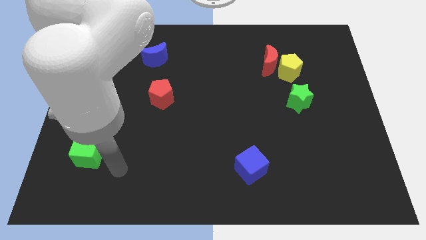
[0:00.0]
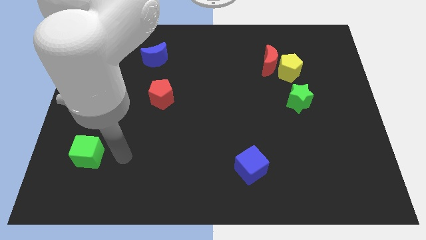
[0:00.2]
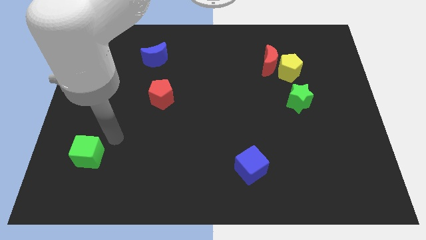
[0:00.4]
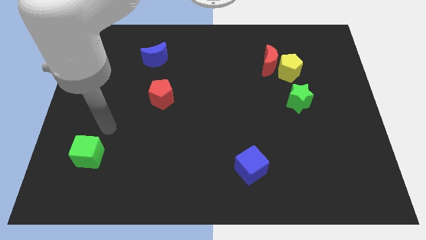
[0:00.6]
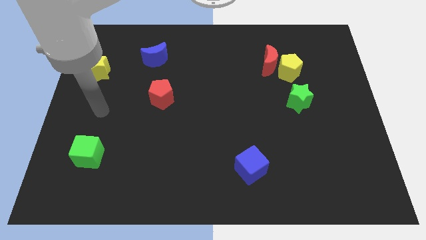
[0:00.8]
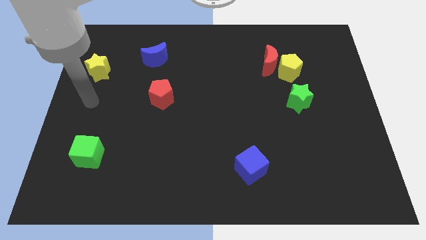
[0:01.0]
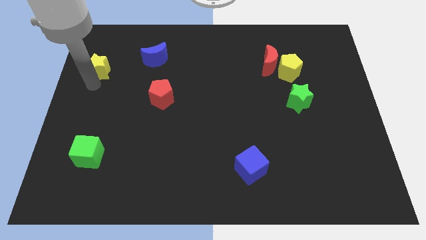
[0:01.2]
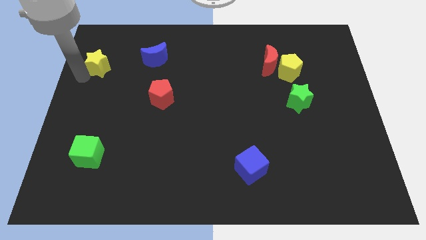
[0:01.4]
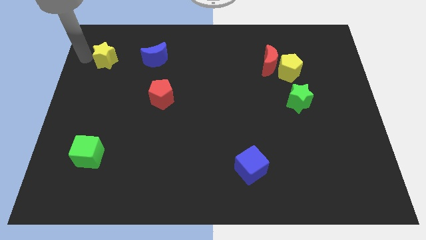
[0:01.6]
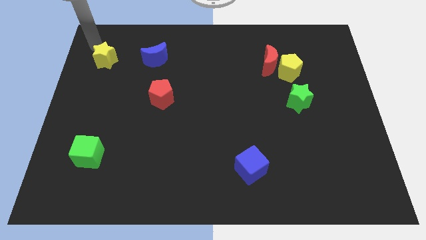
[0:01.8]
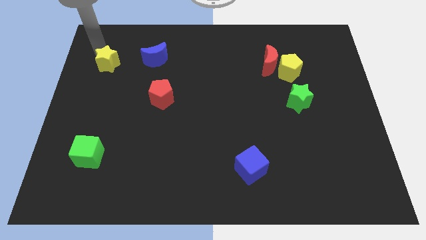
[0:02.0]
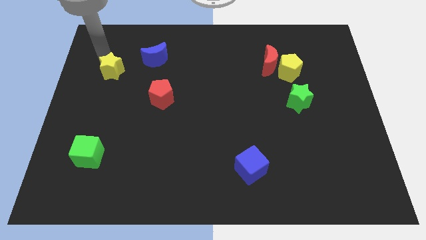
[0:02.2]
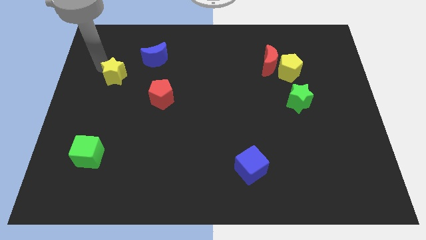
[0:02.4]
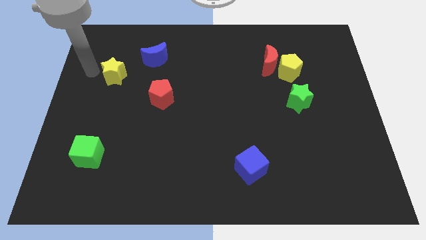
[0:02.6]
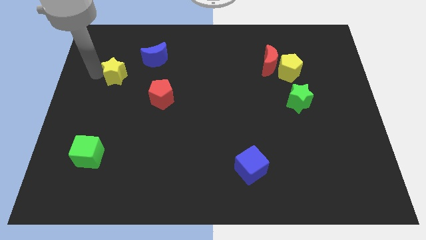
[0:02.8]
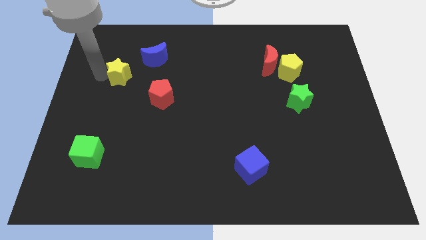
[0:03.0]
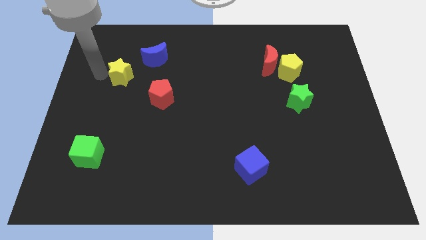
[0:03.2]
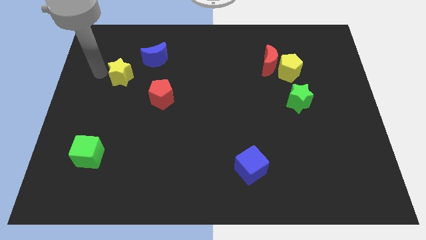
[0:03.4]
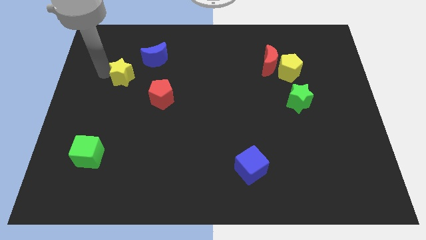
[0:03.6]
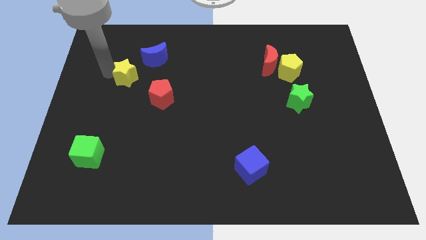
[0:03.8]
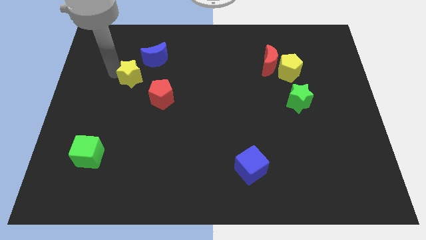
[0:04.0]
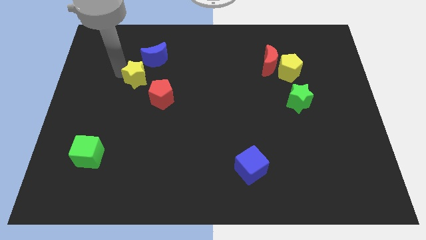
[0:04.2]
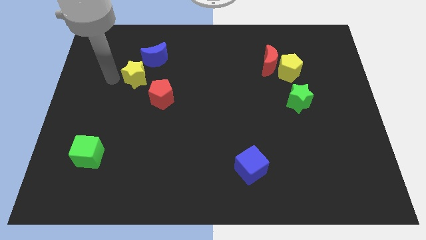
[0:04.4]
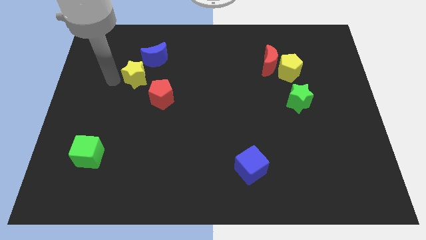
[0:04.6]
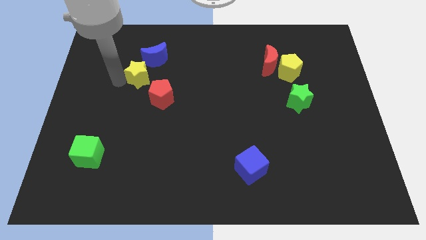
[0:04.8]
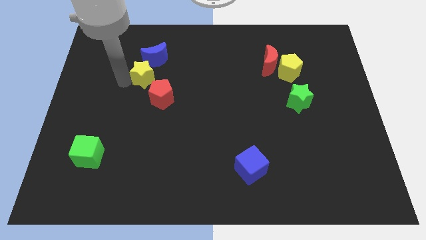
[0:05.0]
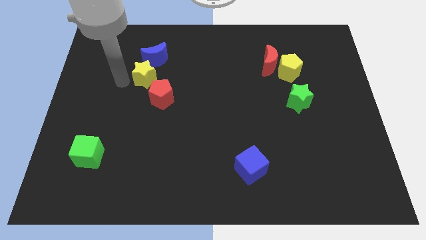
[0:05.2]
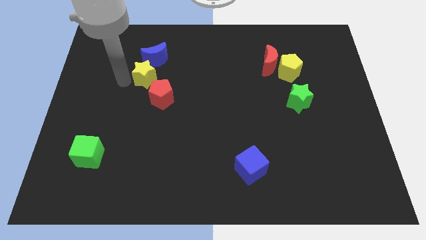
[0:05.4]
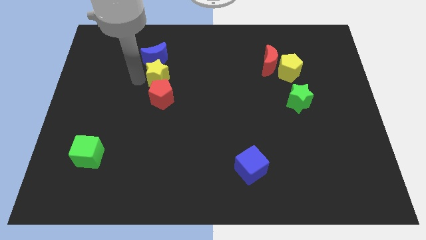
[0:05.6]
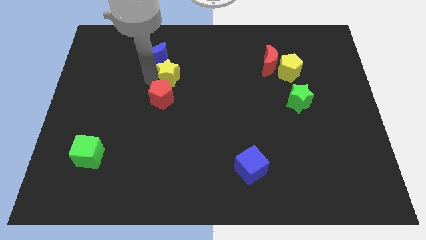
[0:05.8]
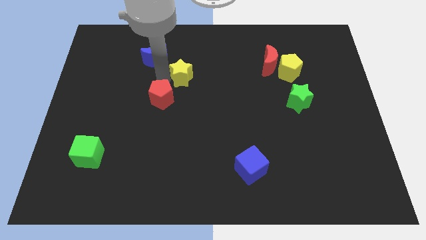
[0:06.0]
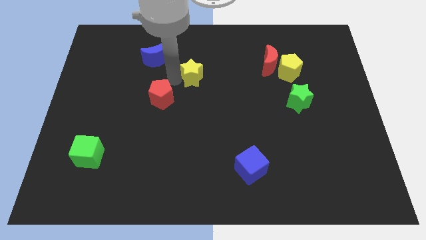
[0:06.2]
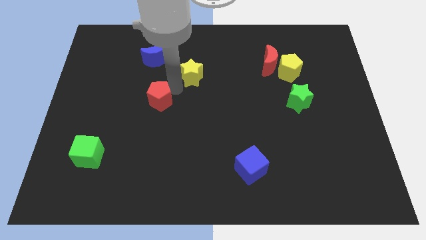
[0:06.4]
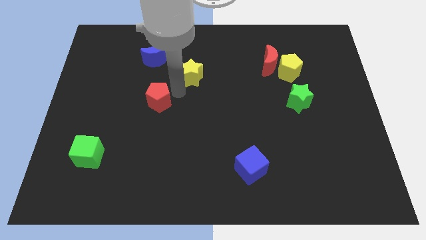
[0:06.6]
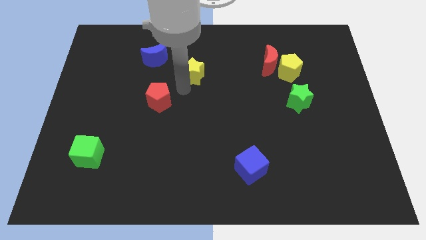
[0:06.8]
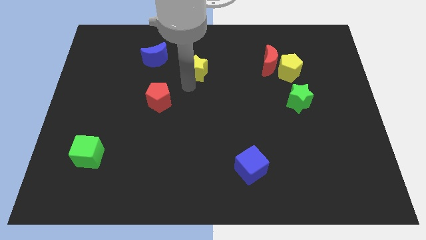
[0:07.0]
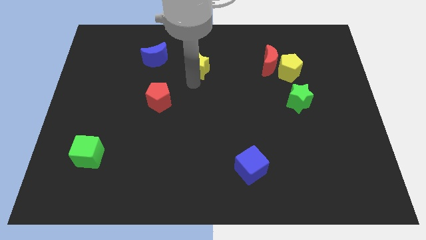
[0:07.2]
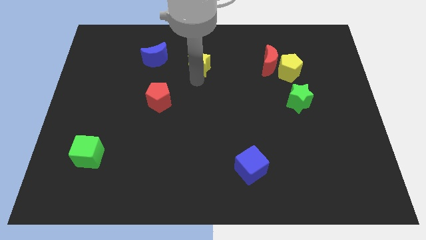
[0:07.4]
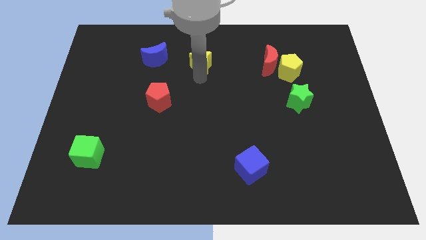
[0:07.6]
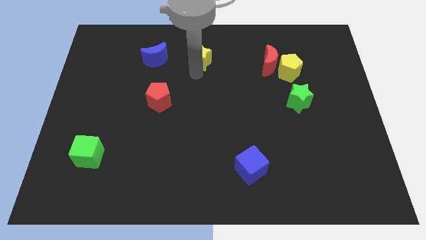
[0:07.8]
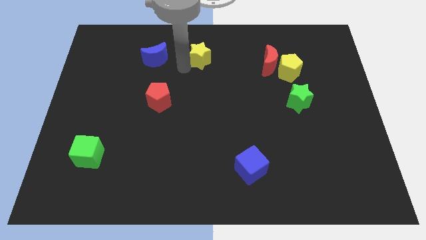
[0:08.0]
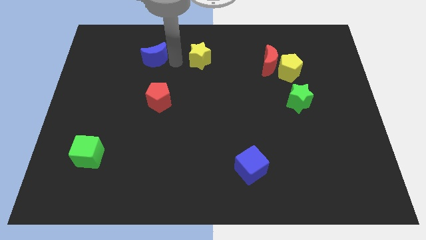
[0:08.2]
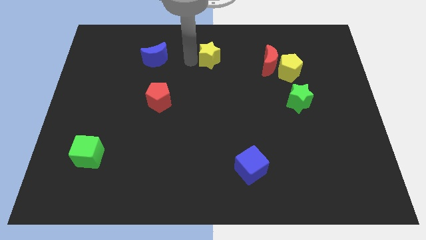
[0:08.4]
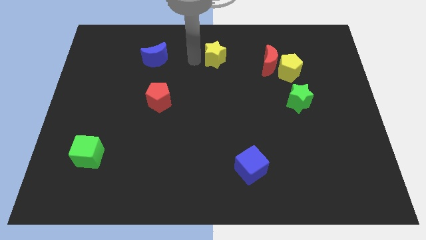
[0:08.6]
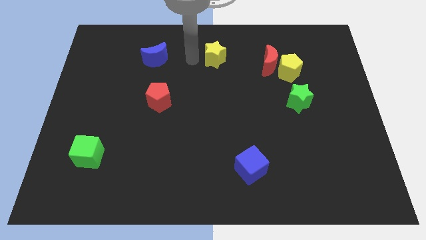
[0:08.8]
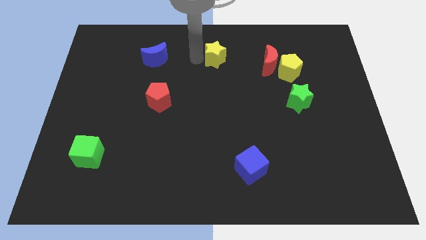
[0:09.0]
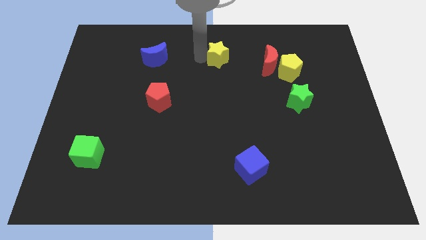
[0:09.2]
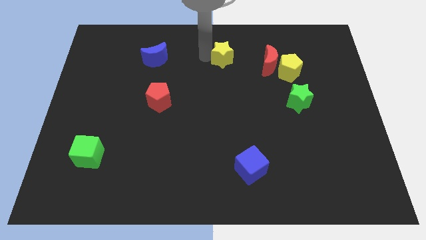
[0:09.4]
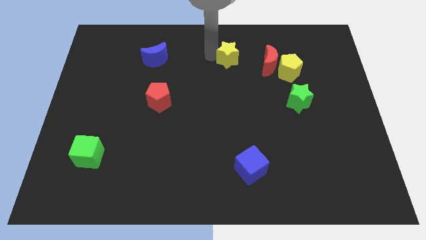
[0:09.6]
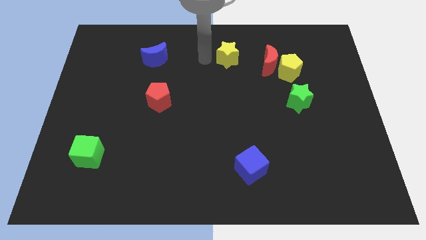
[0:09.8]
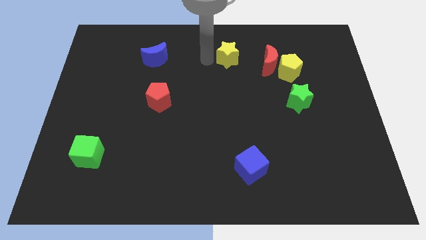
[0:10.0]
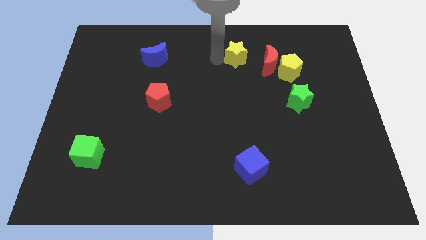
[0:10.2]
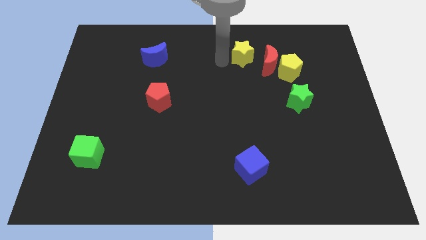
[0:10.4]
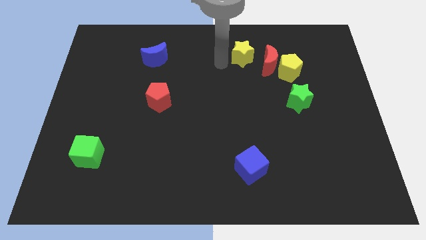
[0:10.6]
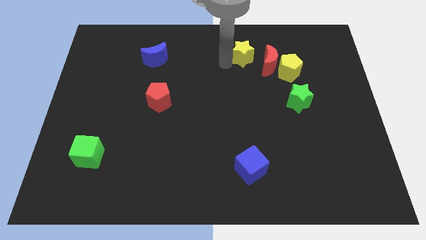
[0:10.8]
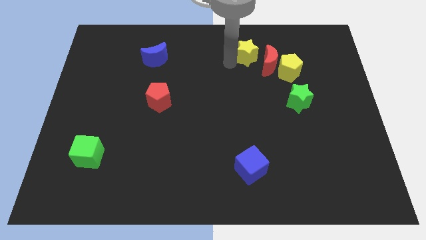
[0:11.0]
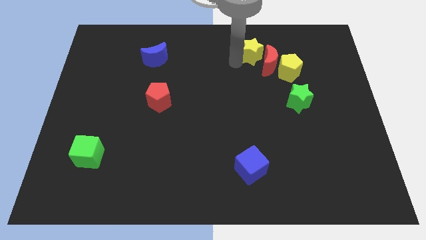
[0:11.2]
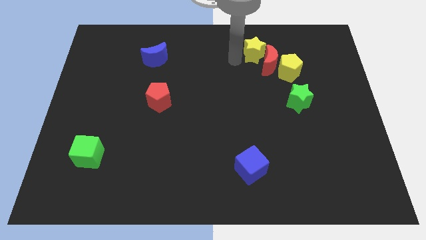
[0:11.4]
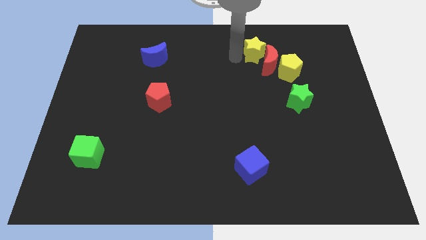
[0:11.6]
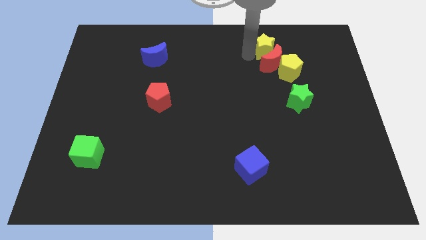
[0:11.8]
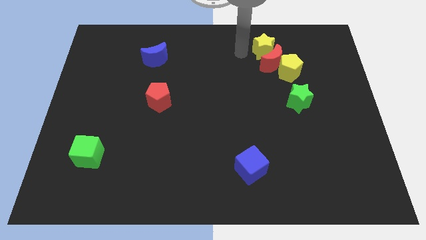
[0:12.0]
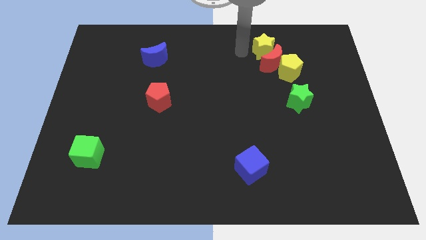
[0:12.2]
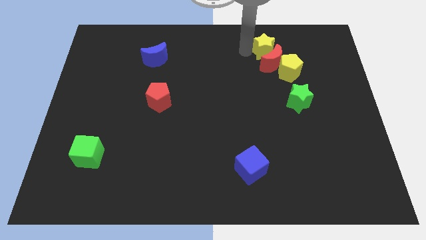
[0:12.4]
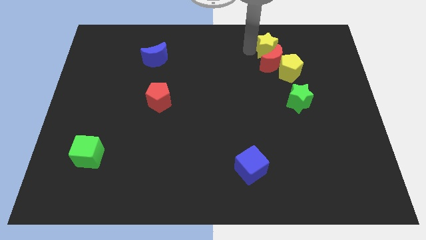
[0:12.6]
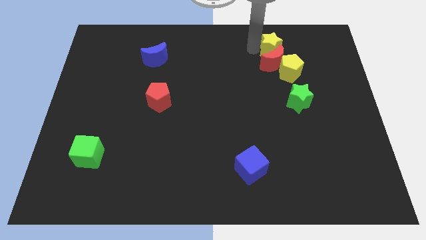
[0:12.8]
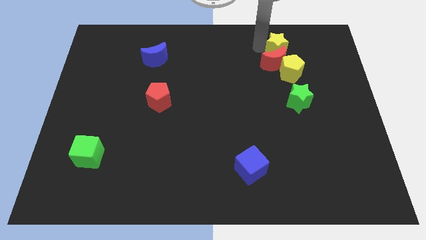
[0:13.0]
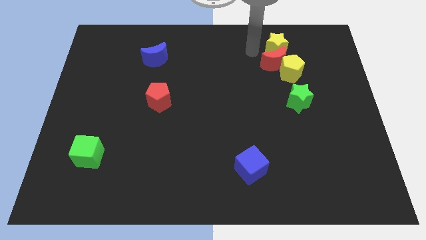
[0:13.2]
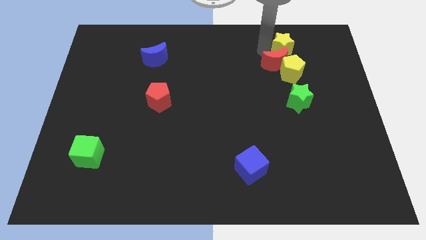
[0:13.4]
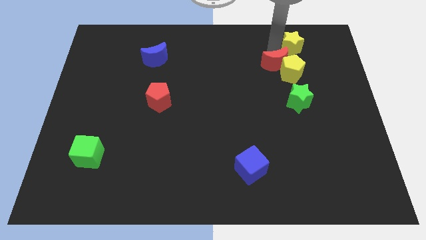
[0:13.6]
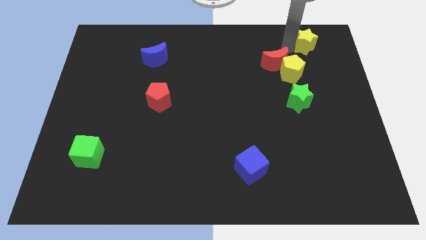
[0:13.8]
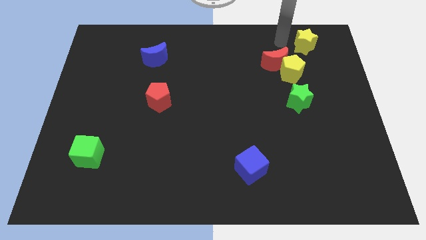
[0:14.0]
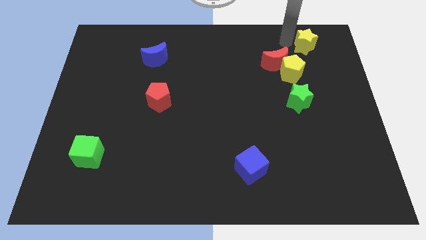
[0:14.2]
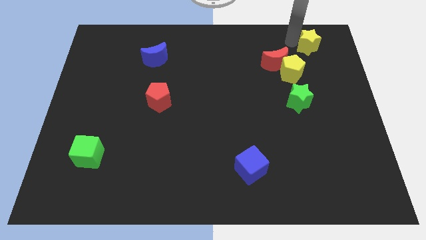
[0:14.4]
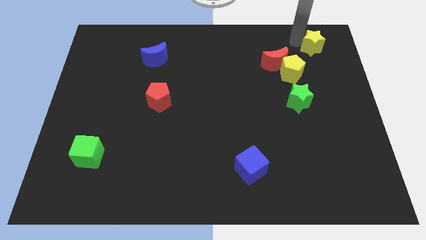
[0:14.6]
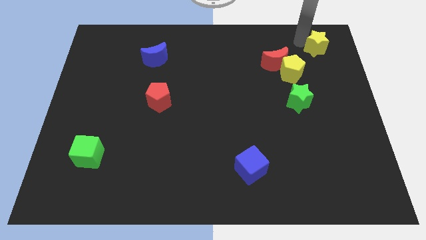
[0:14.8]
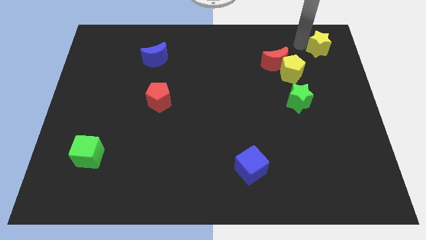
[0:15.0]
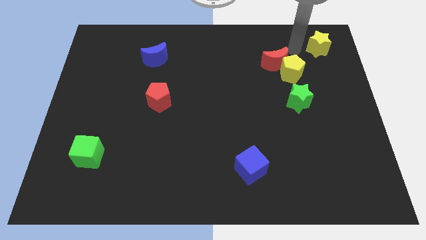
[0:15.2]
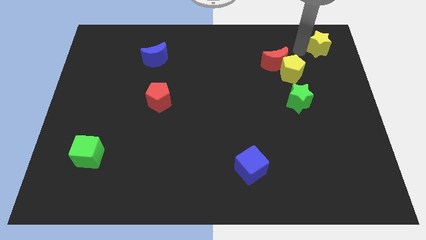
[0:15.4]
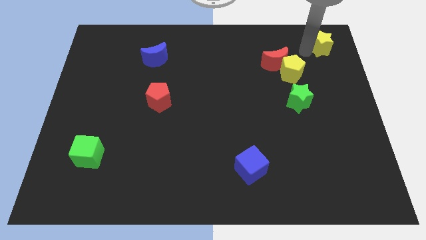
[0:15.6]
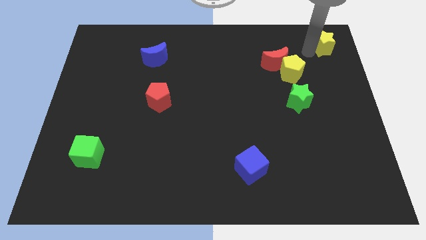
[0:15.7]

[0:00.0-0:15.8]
slide the yellow star to the top right of the board

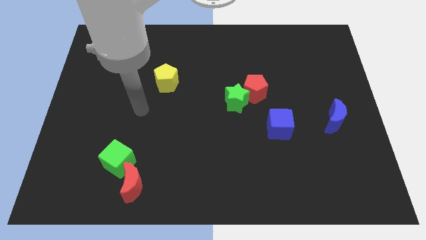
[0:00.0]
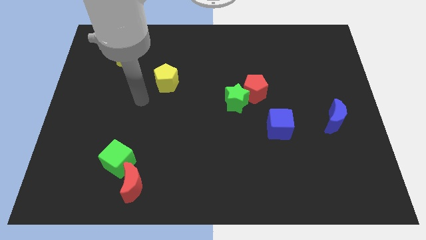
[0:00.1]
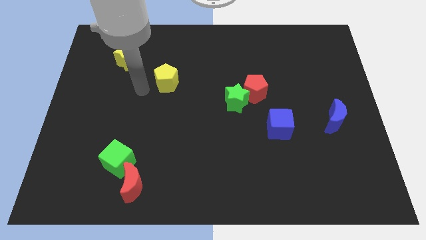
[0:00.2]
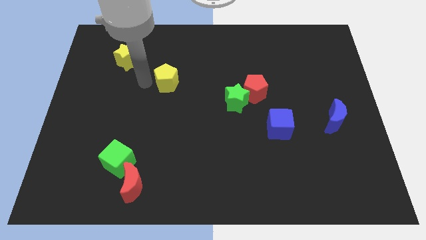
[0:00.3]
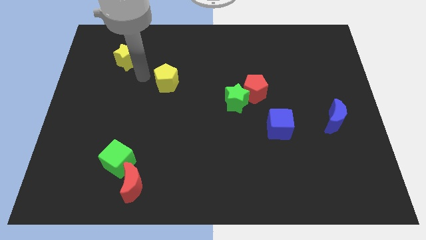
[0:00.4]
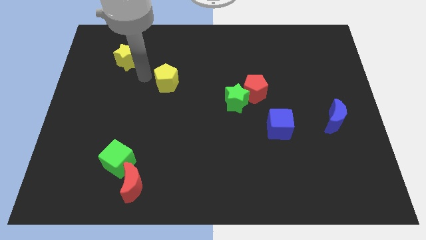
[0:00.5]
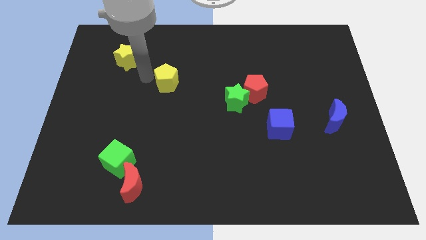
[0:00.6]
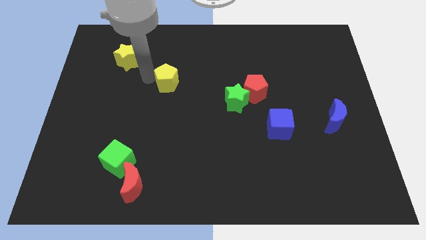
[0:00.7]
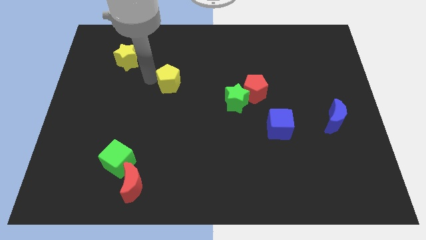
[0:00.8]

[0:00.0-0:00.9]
put the yellow pentagon to the middle
